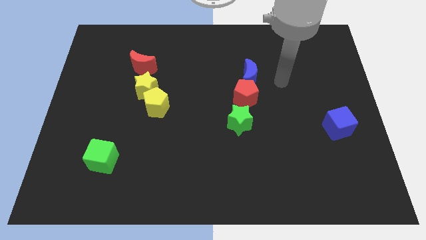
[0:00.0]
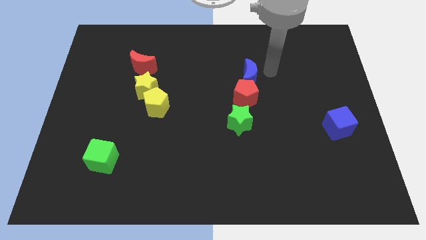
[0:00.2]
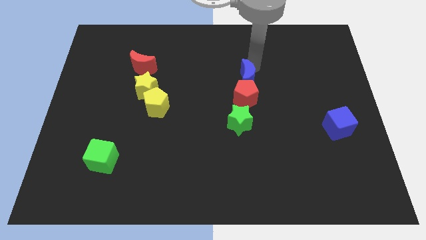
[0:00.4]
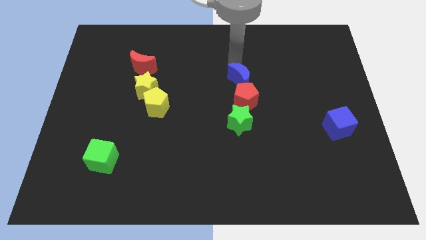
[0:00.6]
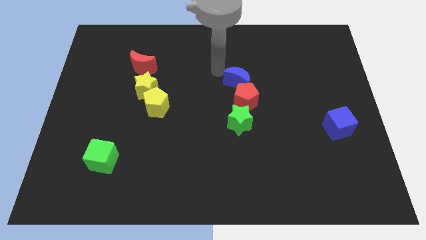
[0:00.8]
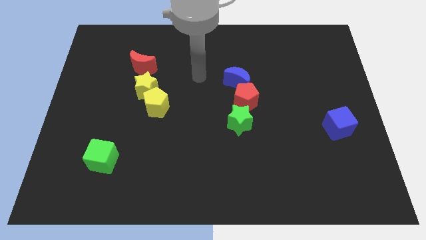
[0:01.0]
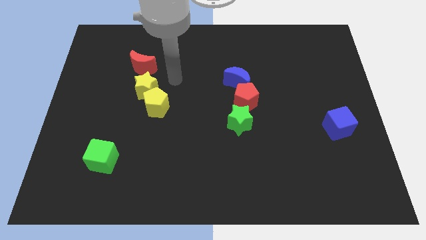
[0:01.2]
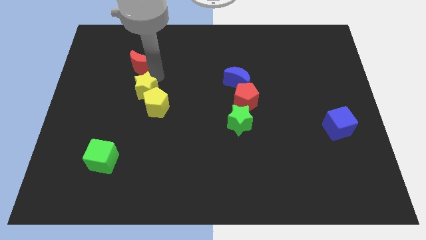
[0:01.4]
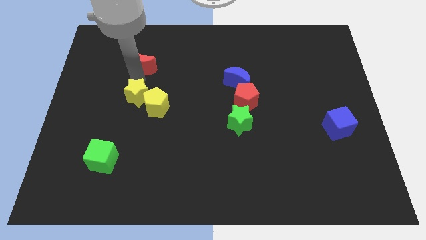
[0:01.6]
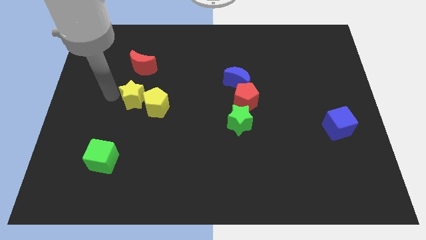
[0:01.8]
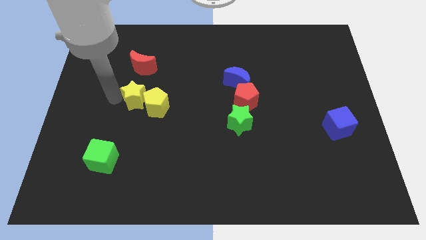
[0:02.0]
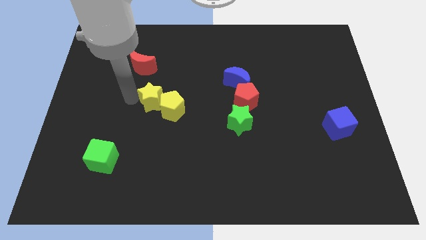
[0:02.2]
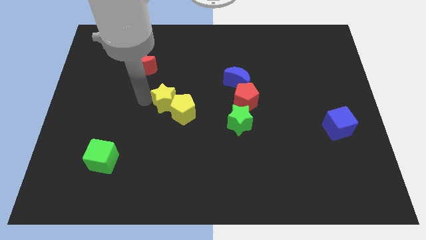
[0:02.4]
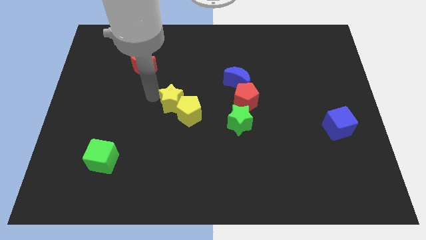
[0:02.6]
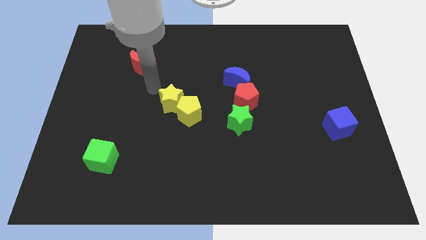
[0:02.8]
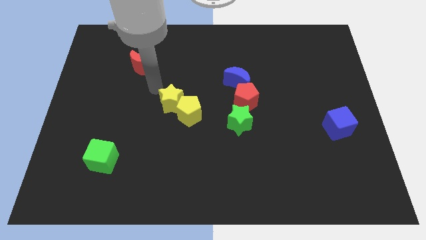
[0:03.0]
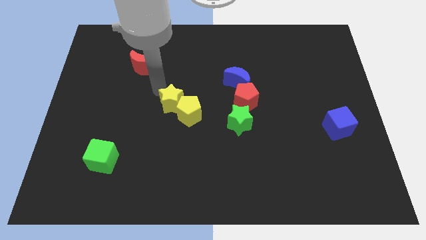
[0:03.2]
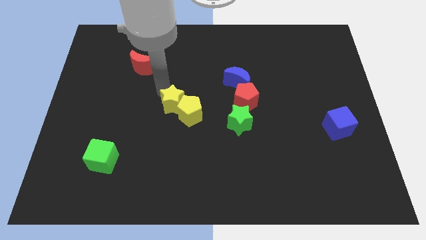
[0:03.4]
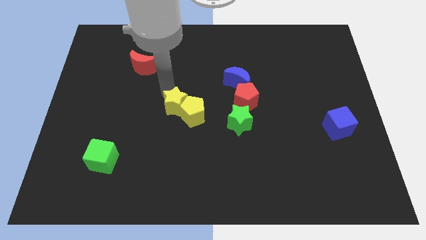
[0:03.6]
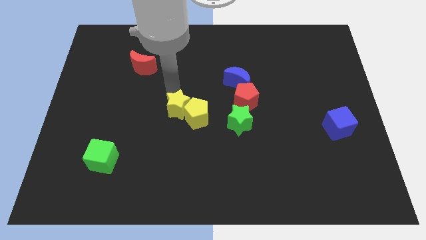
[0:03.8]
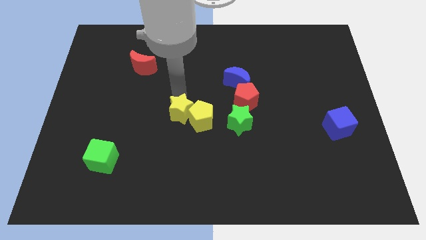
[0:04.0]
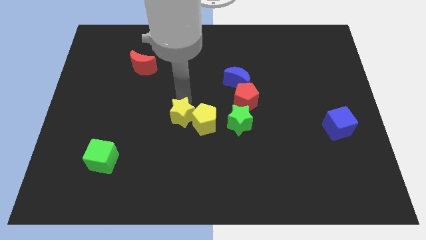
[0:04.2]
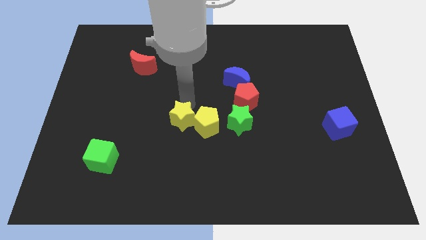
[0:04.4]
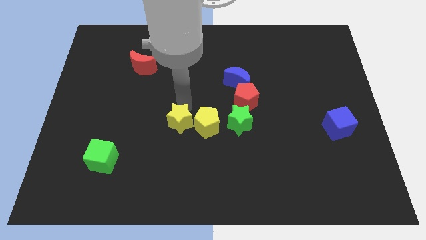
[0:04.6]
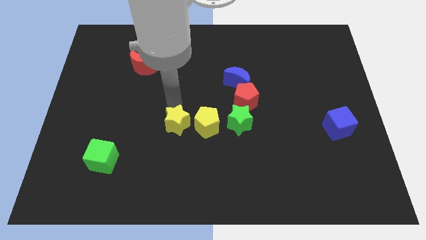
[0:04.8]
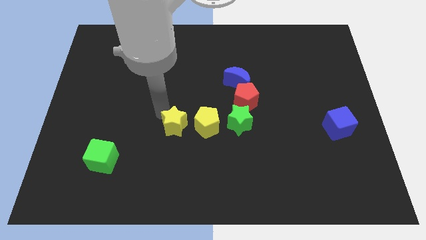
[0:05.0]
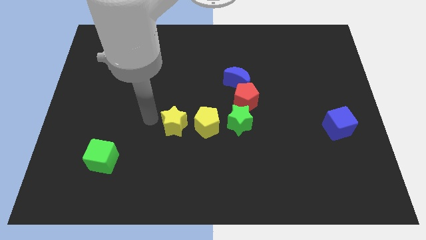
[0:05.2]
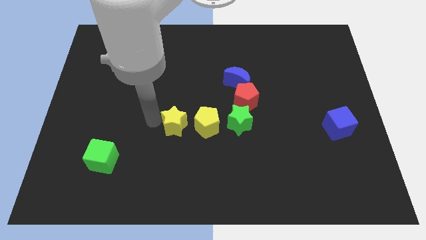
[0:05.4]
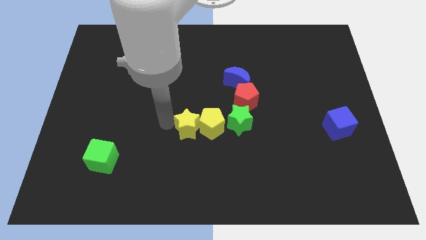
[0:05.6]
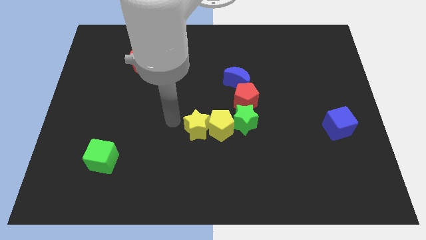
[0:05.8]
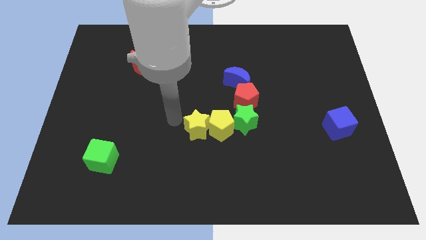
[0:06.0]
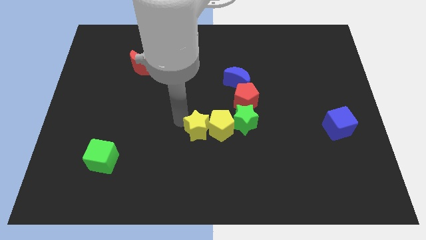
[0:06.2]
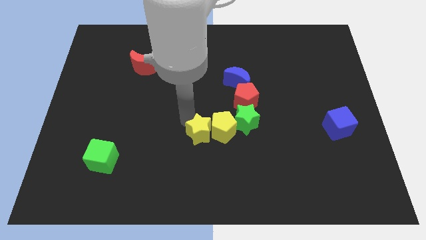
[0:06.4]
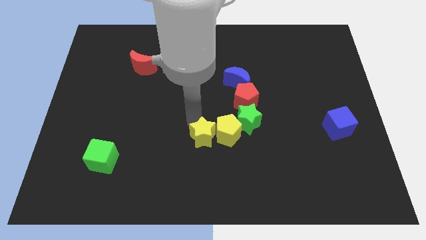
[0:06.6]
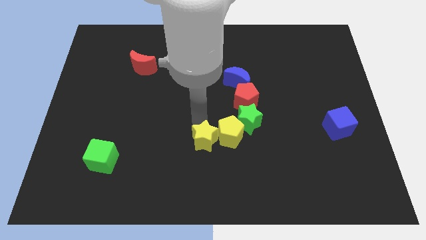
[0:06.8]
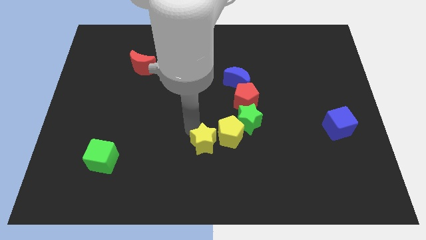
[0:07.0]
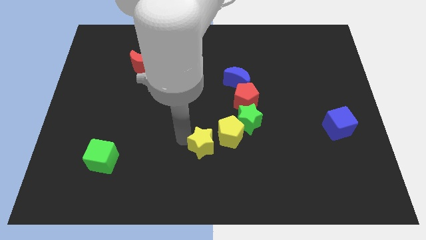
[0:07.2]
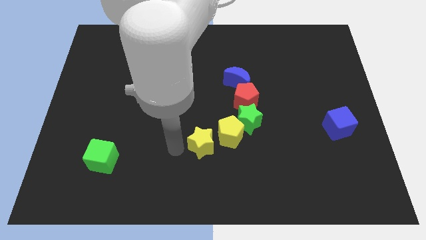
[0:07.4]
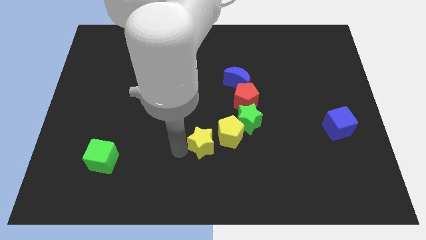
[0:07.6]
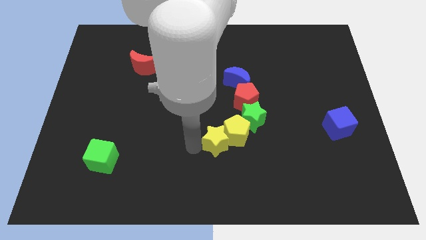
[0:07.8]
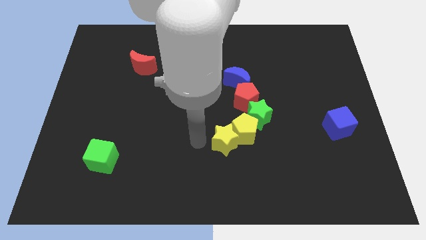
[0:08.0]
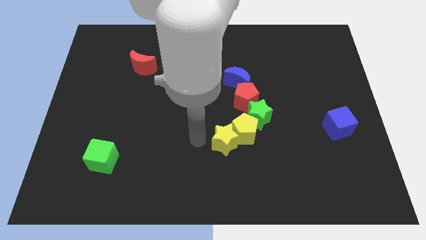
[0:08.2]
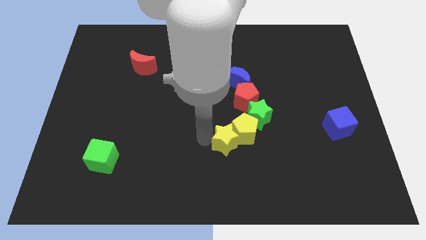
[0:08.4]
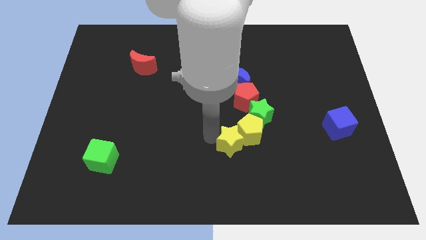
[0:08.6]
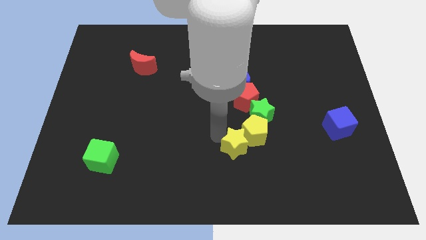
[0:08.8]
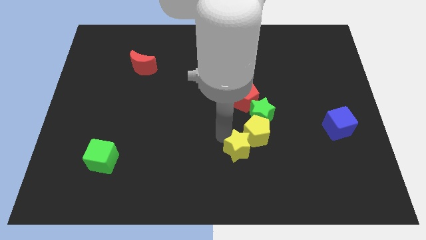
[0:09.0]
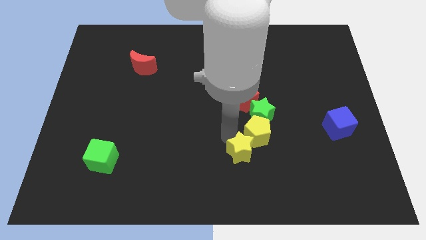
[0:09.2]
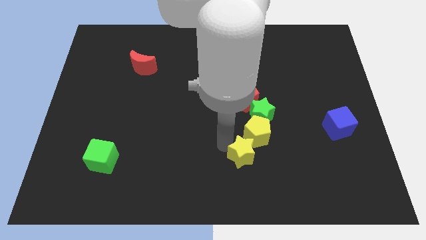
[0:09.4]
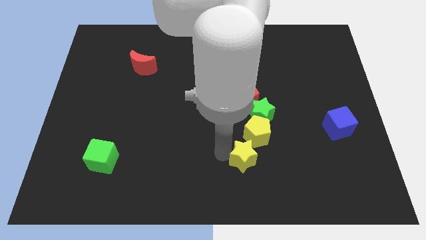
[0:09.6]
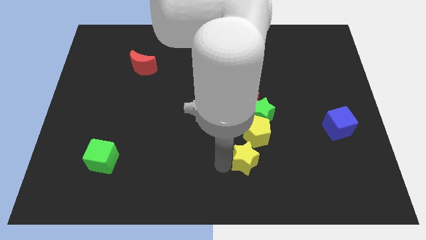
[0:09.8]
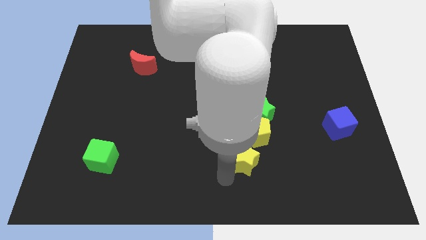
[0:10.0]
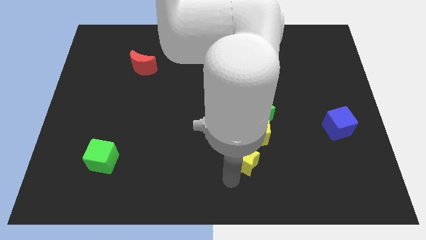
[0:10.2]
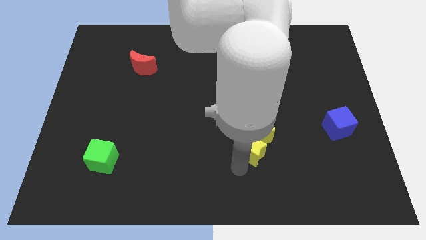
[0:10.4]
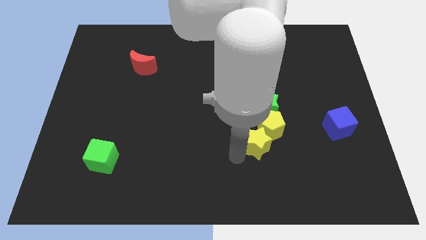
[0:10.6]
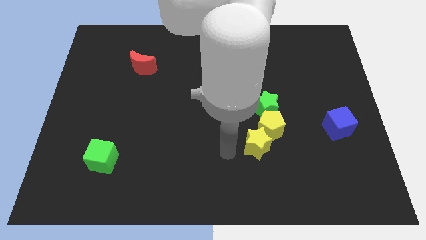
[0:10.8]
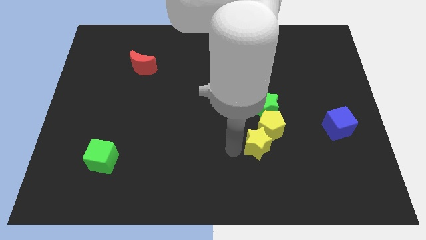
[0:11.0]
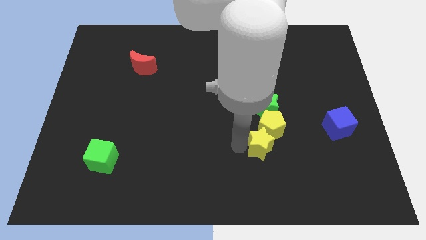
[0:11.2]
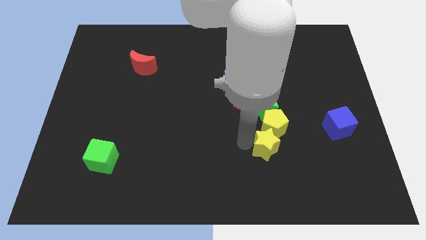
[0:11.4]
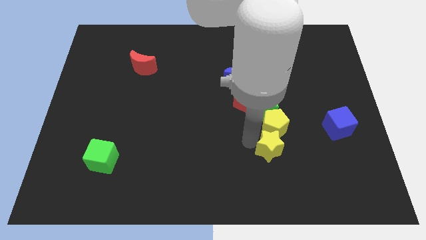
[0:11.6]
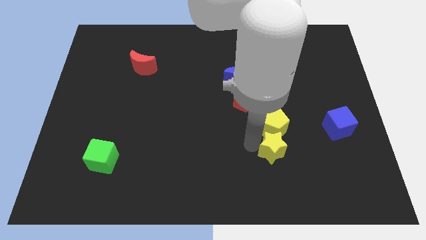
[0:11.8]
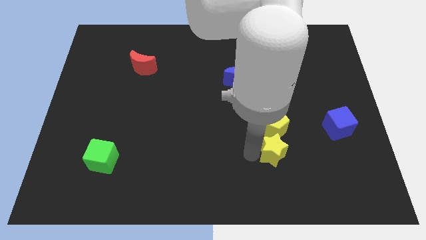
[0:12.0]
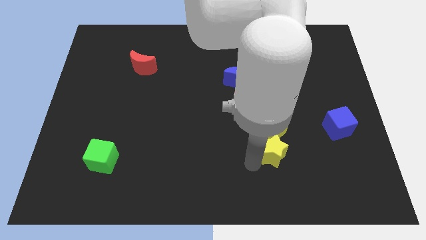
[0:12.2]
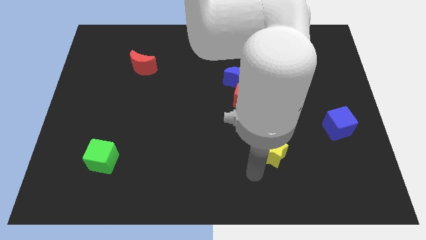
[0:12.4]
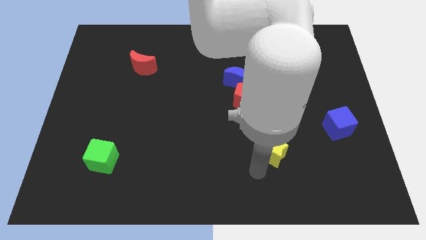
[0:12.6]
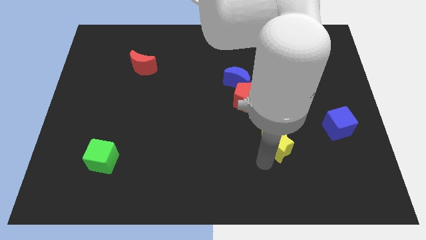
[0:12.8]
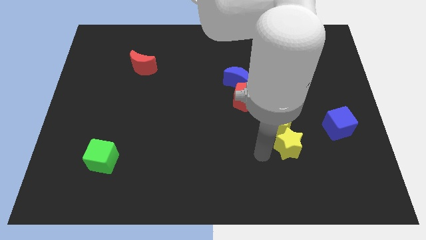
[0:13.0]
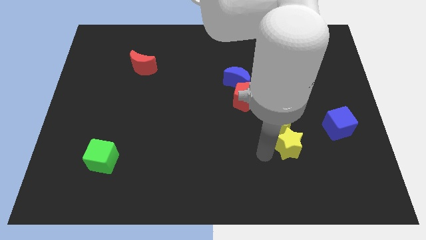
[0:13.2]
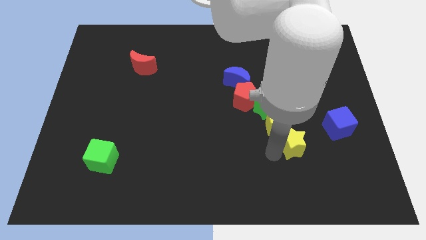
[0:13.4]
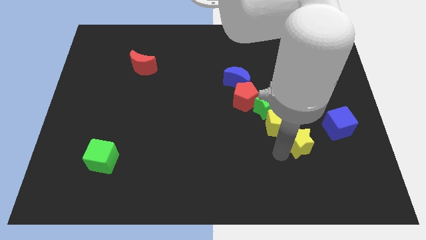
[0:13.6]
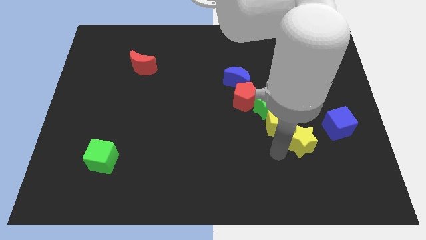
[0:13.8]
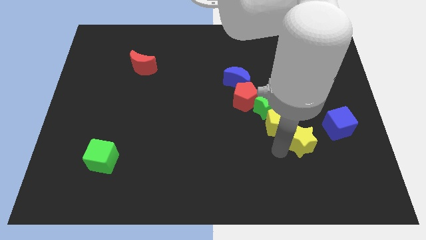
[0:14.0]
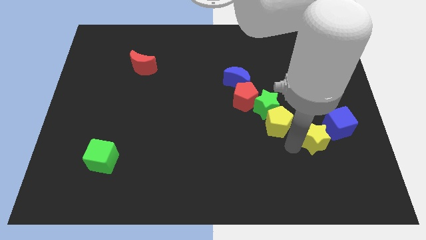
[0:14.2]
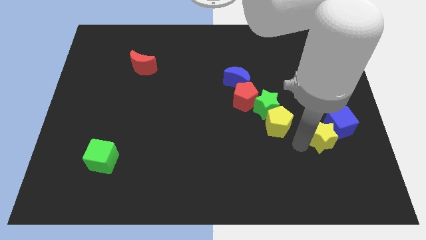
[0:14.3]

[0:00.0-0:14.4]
push the yellow star to the blue cube
